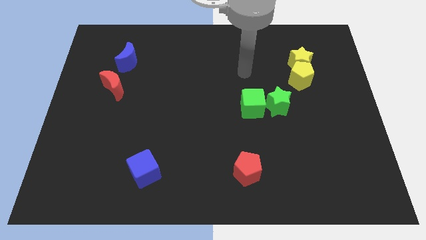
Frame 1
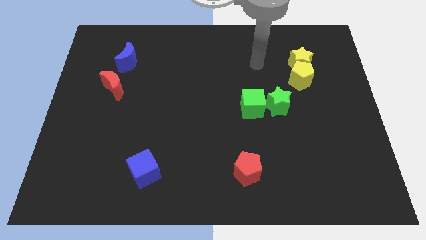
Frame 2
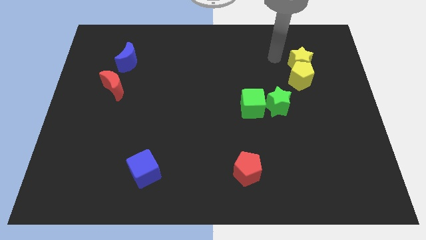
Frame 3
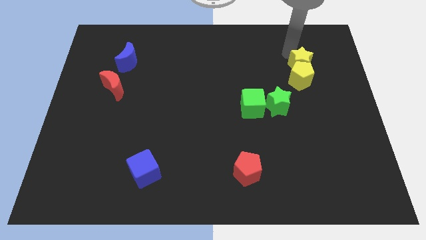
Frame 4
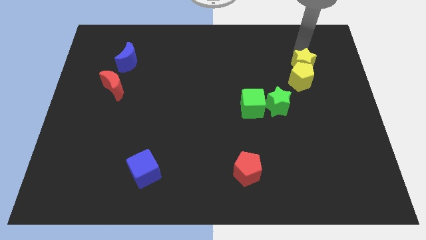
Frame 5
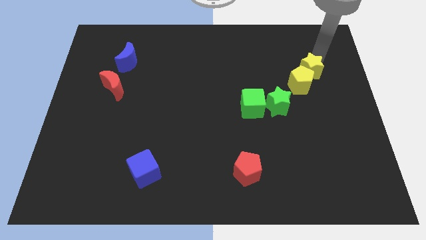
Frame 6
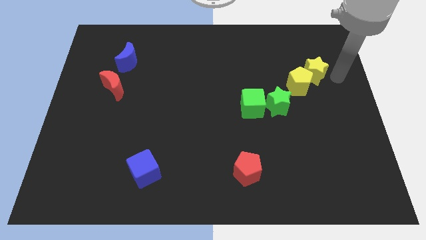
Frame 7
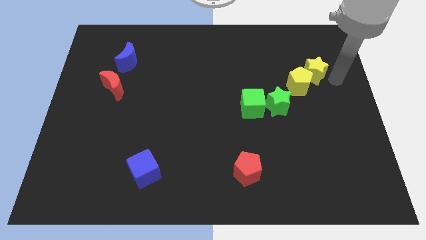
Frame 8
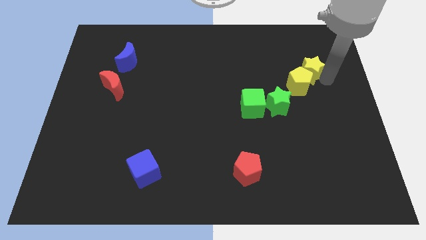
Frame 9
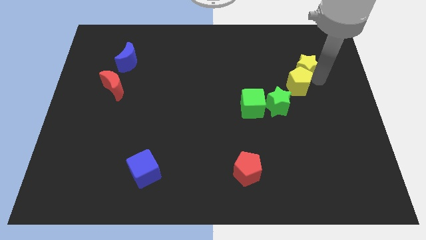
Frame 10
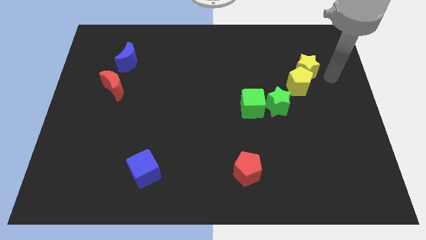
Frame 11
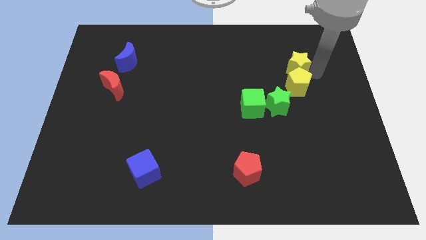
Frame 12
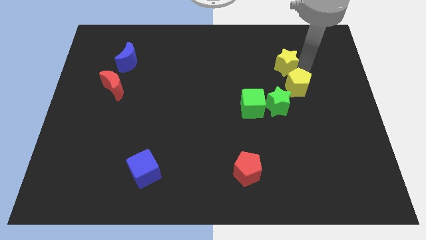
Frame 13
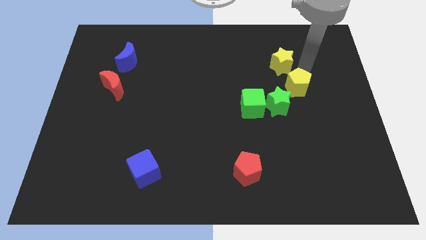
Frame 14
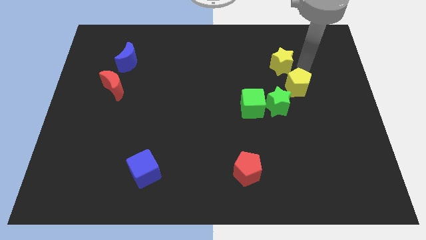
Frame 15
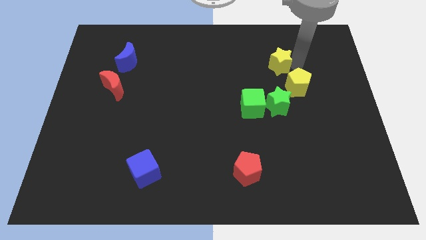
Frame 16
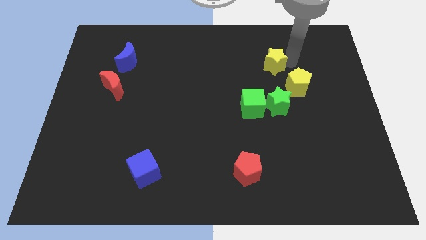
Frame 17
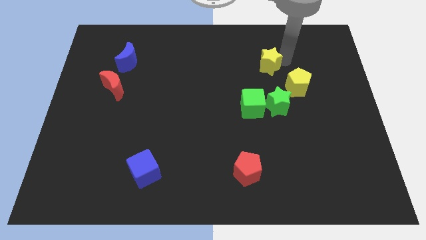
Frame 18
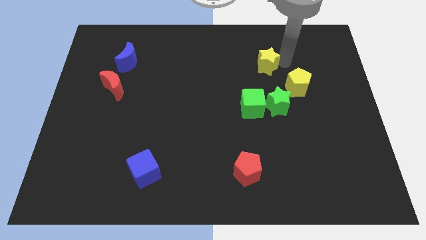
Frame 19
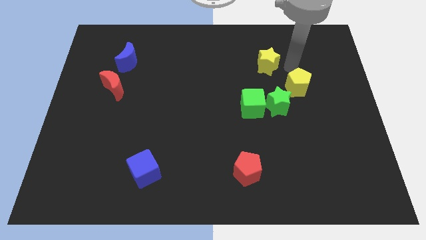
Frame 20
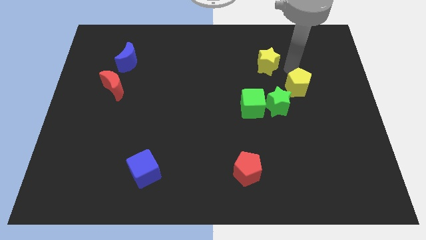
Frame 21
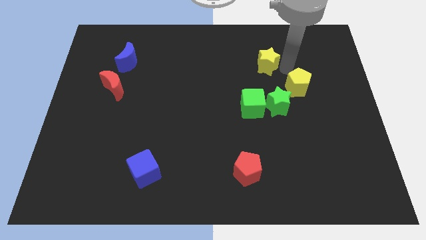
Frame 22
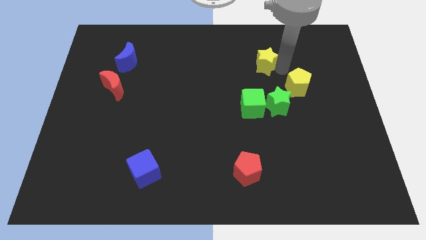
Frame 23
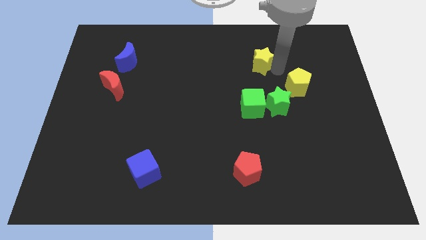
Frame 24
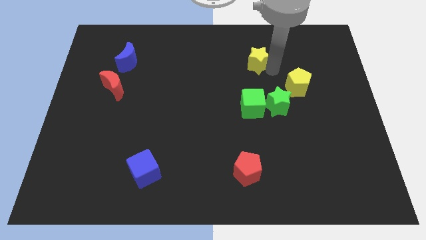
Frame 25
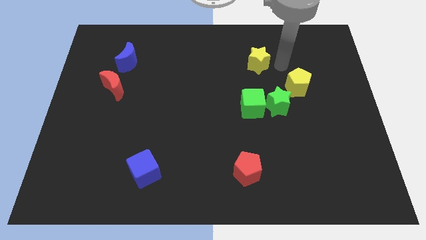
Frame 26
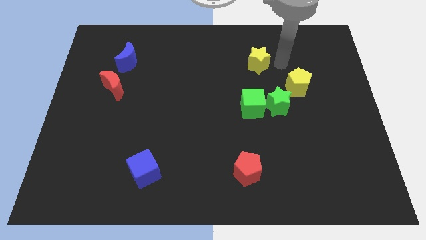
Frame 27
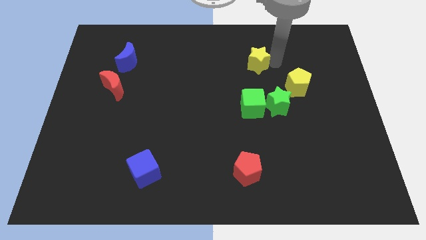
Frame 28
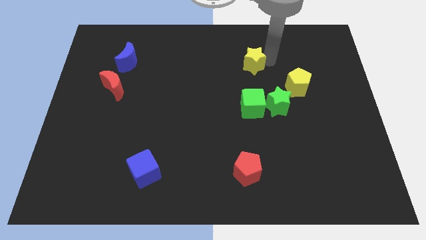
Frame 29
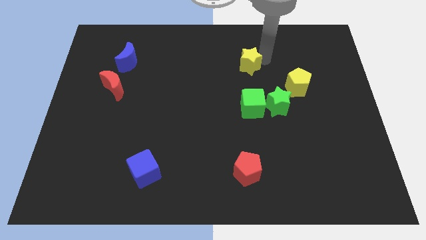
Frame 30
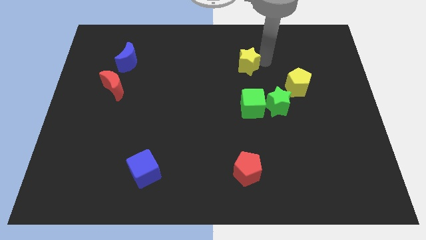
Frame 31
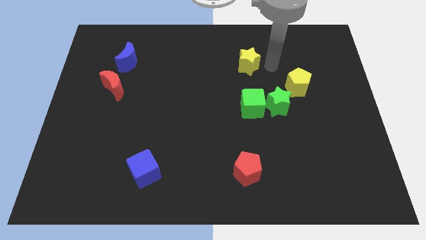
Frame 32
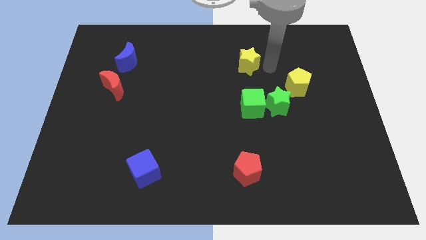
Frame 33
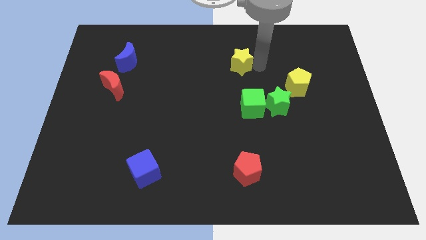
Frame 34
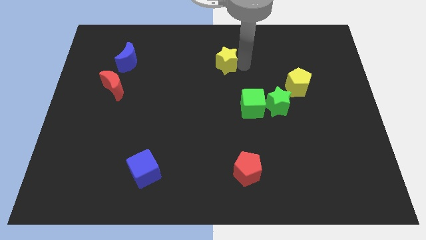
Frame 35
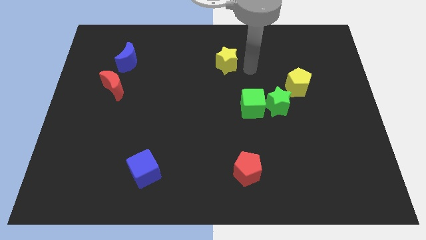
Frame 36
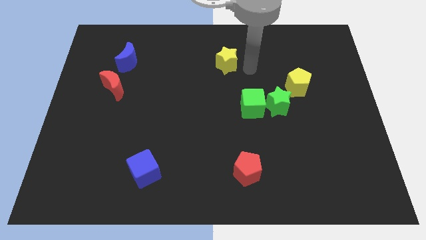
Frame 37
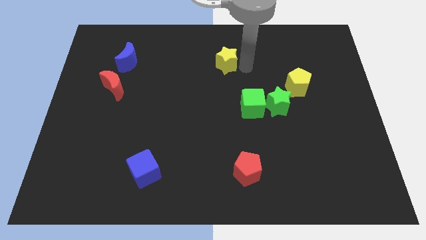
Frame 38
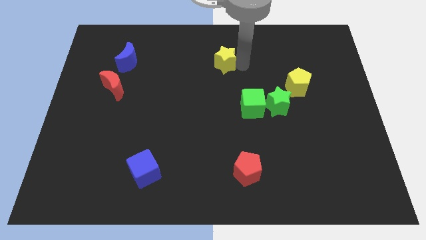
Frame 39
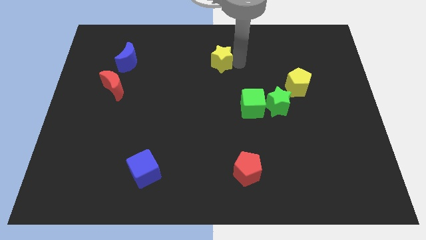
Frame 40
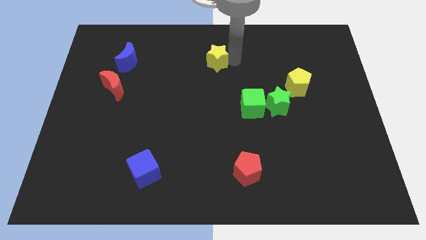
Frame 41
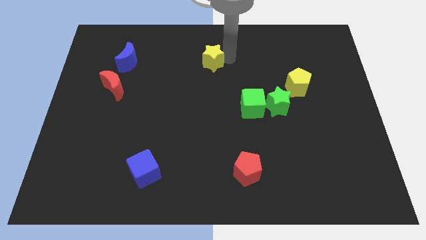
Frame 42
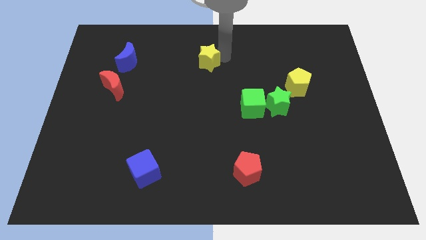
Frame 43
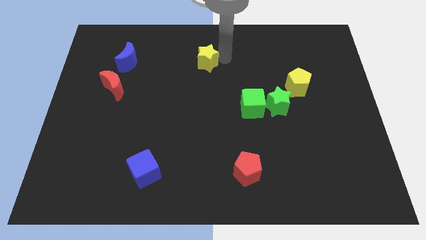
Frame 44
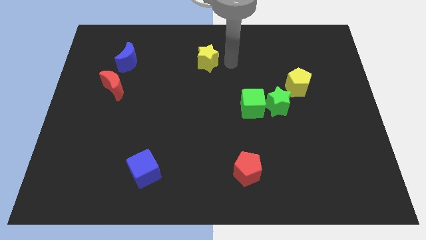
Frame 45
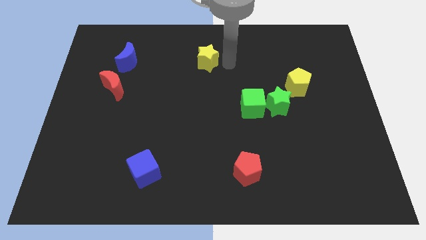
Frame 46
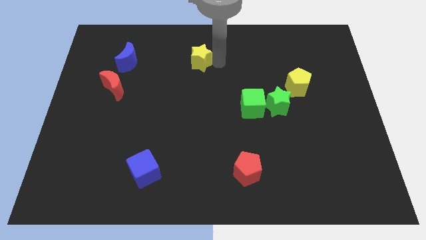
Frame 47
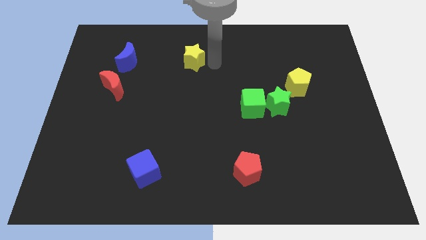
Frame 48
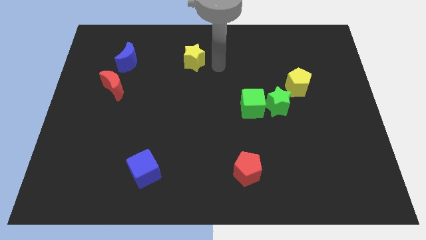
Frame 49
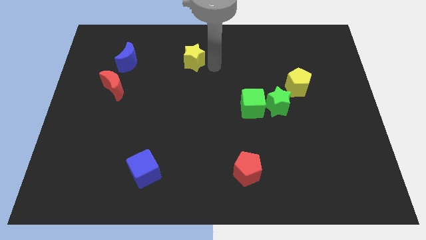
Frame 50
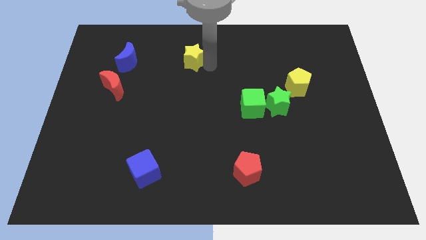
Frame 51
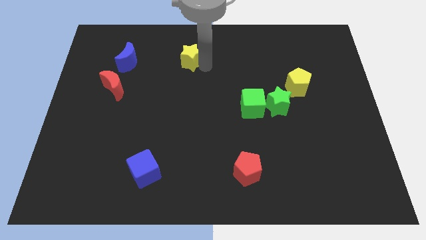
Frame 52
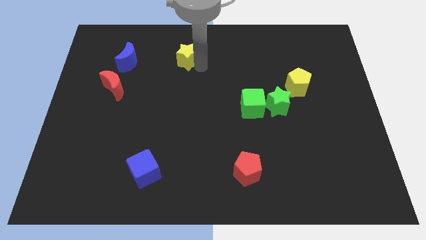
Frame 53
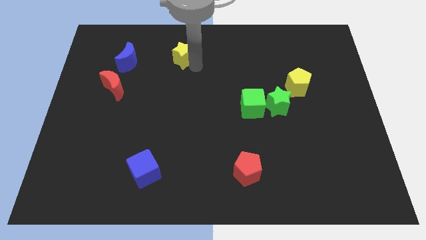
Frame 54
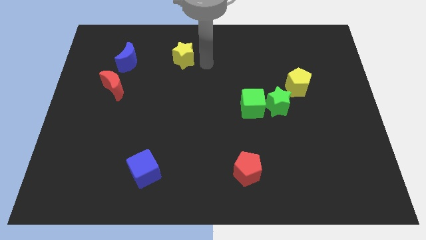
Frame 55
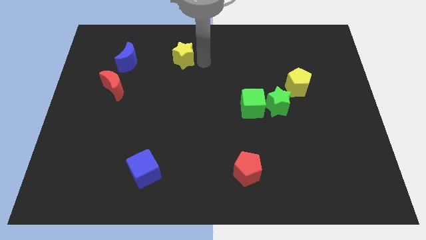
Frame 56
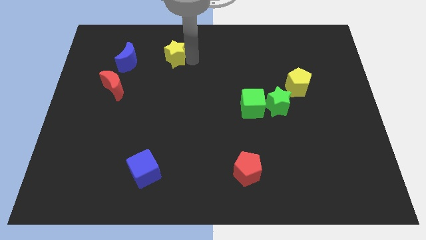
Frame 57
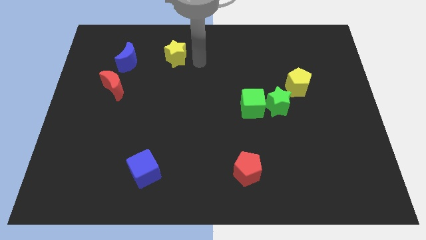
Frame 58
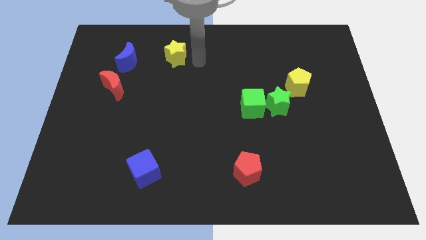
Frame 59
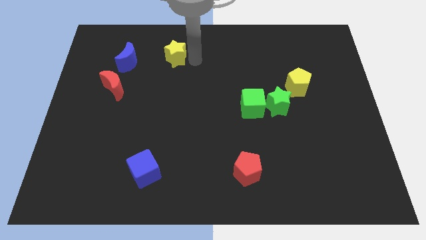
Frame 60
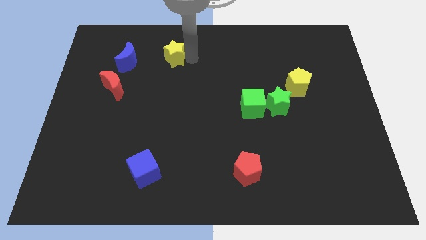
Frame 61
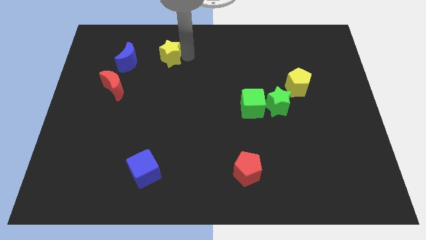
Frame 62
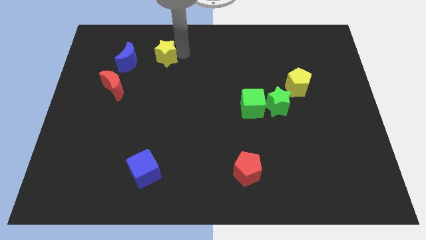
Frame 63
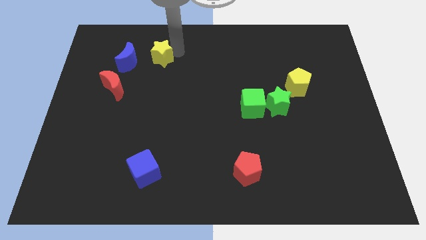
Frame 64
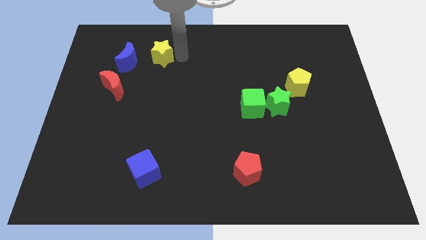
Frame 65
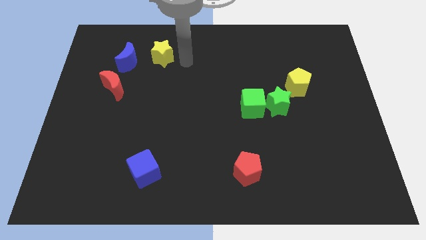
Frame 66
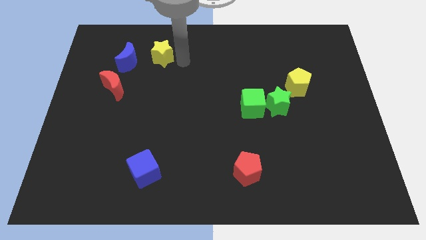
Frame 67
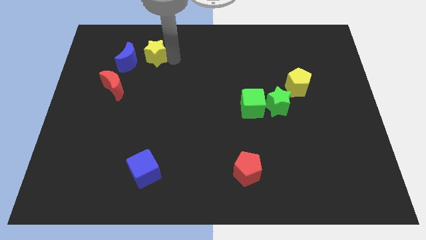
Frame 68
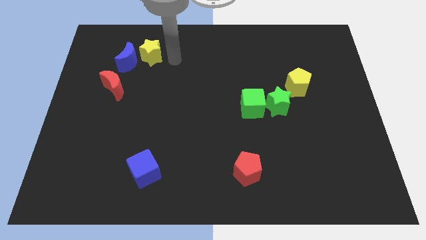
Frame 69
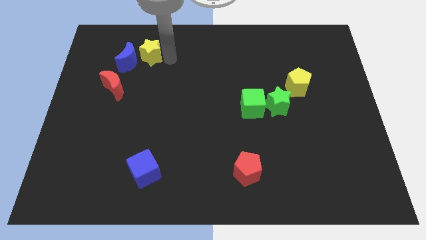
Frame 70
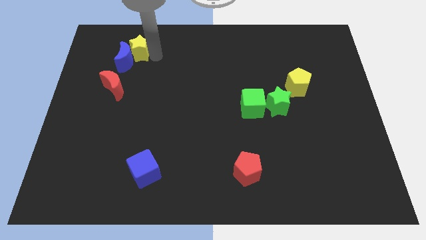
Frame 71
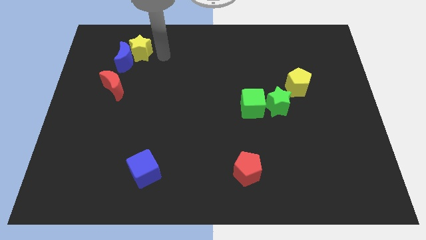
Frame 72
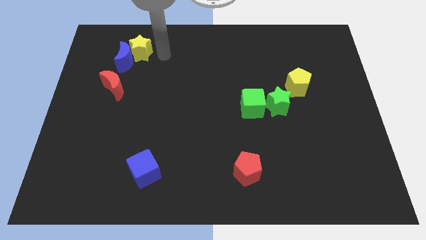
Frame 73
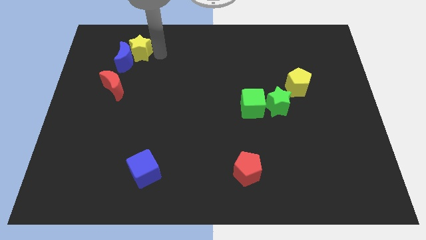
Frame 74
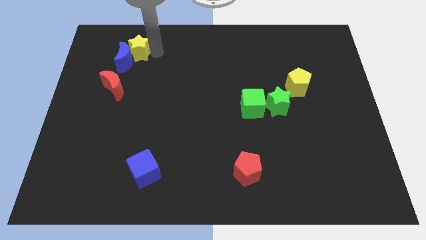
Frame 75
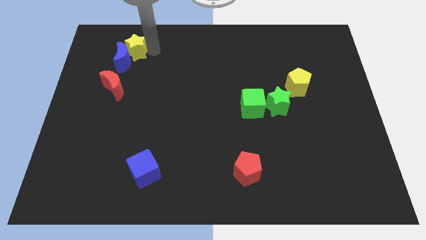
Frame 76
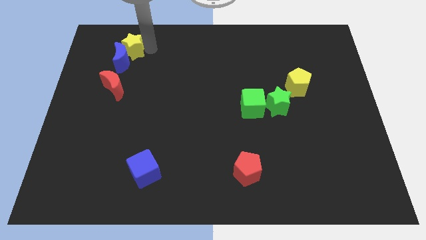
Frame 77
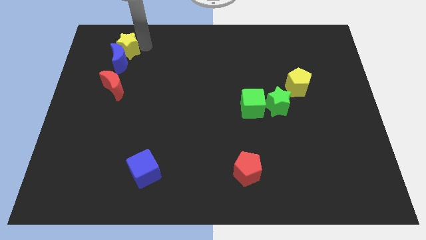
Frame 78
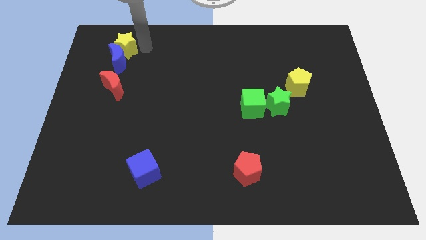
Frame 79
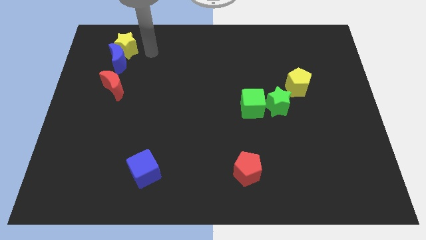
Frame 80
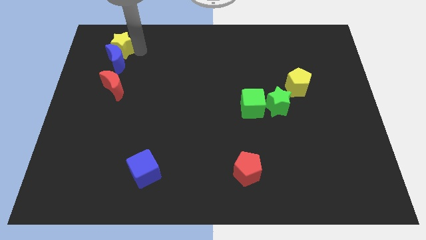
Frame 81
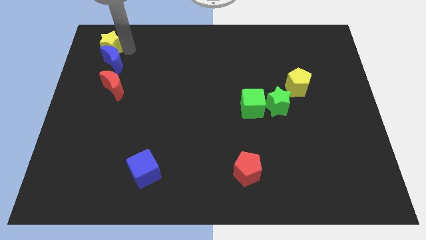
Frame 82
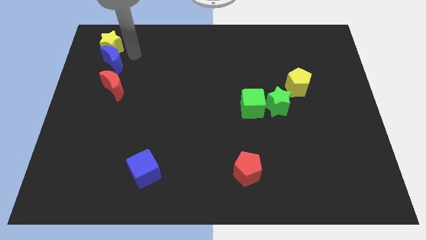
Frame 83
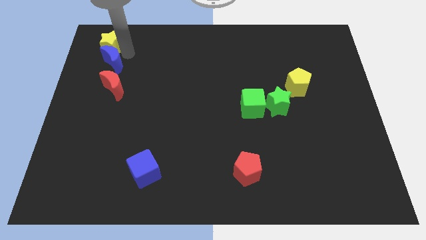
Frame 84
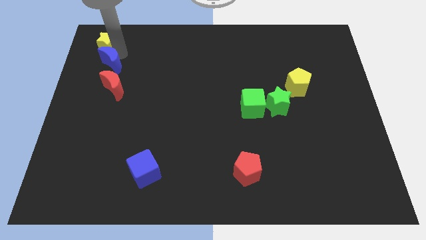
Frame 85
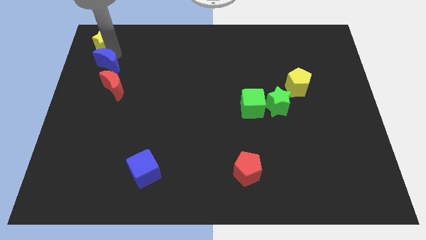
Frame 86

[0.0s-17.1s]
move the yellow star to the top left
